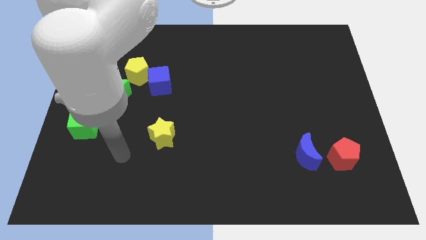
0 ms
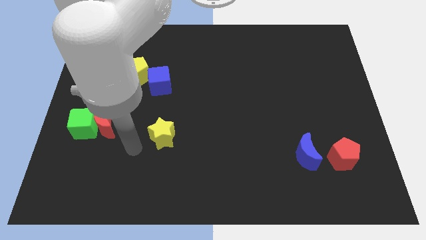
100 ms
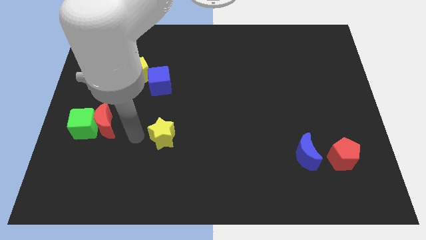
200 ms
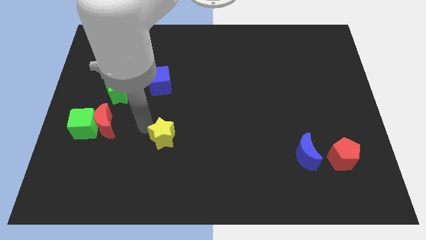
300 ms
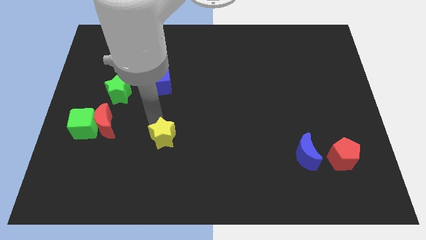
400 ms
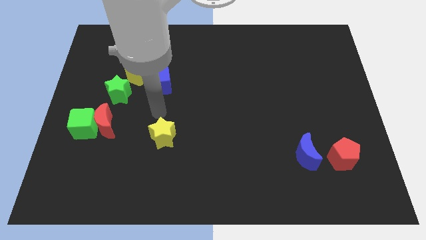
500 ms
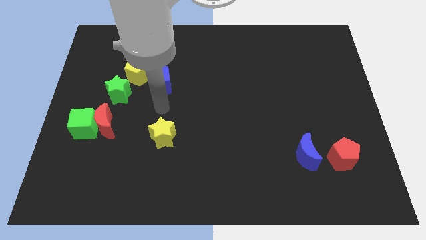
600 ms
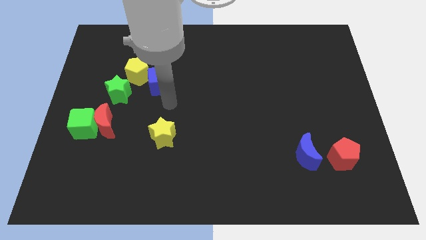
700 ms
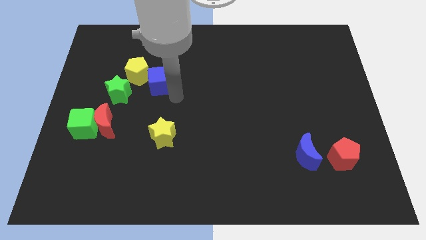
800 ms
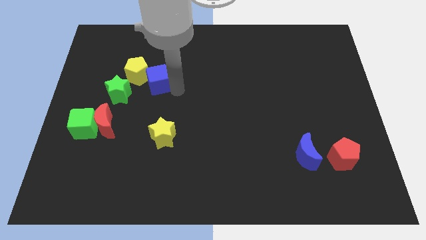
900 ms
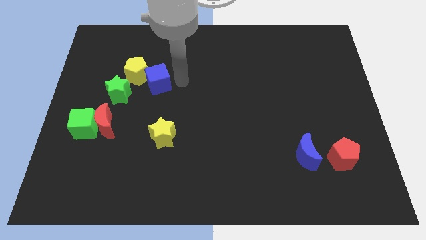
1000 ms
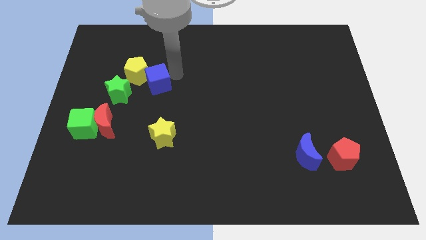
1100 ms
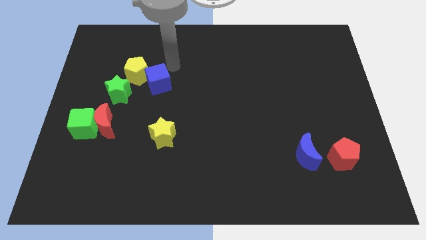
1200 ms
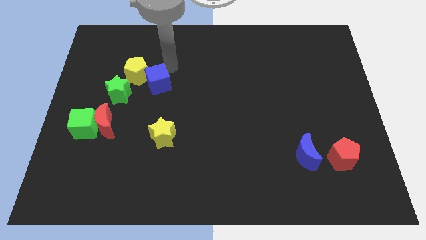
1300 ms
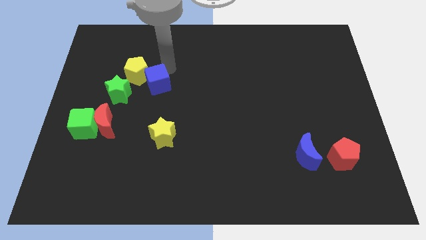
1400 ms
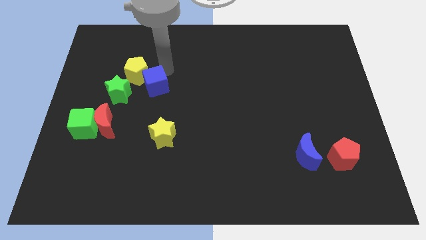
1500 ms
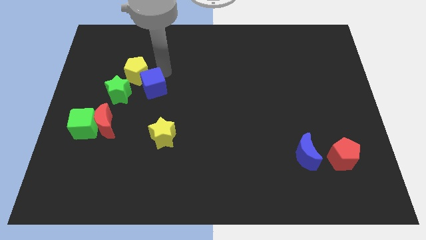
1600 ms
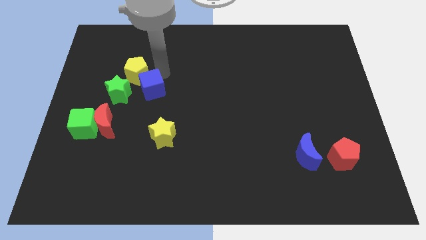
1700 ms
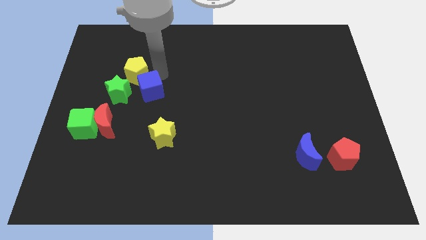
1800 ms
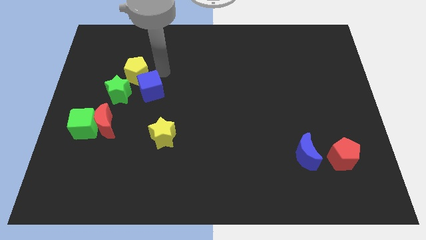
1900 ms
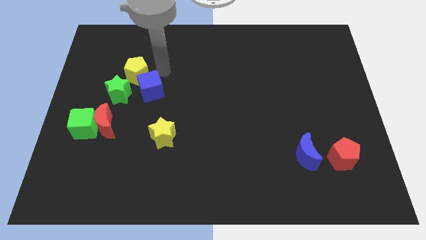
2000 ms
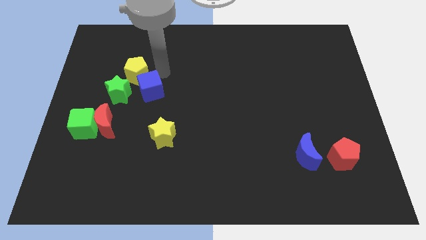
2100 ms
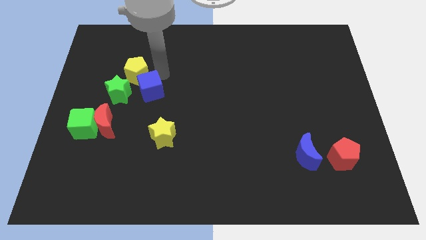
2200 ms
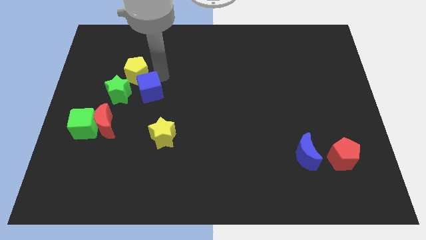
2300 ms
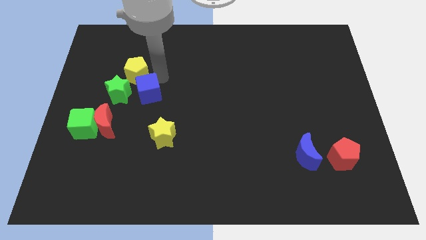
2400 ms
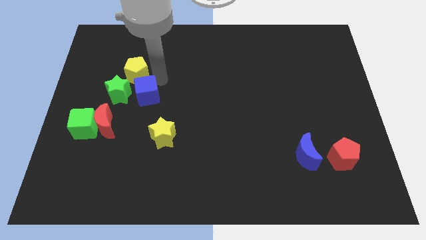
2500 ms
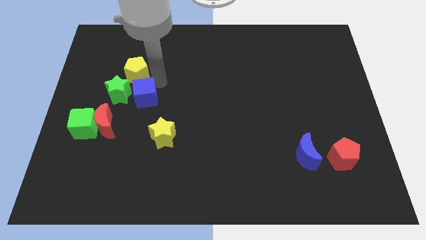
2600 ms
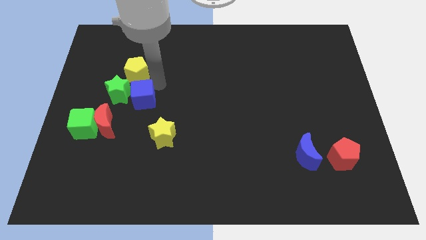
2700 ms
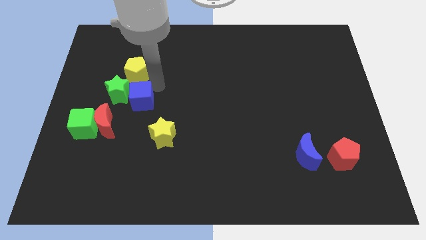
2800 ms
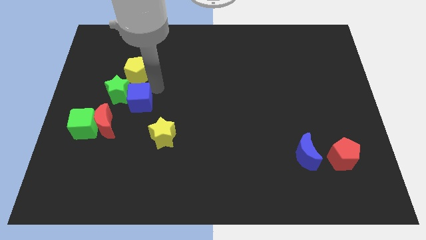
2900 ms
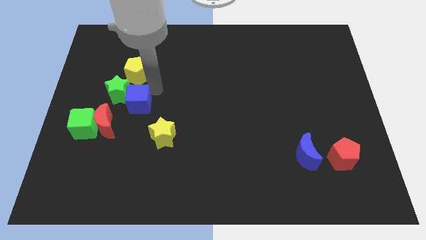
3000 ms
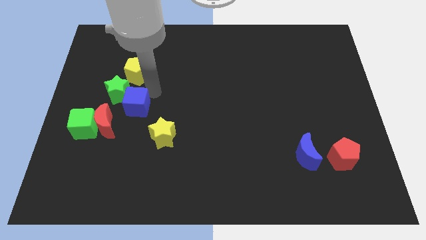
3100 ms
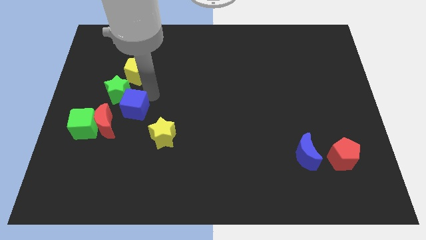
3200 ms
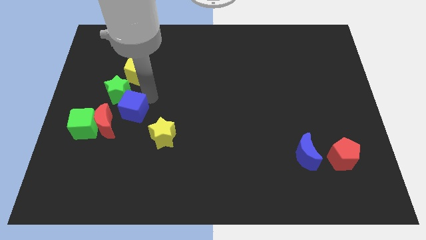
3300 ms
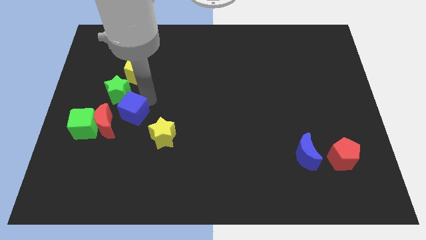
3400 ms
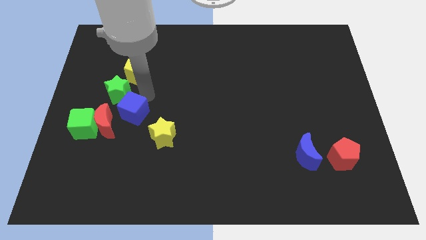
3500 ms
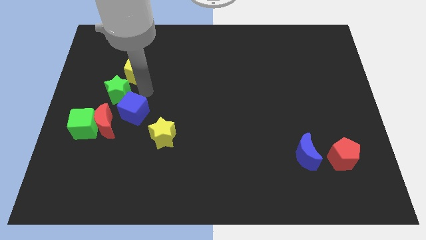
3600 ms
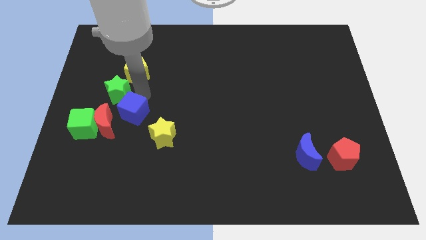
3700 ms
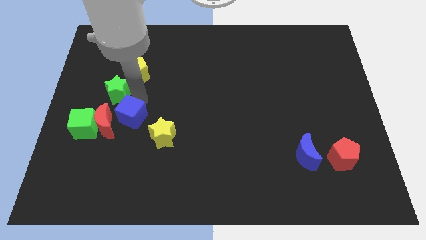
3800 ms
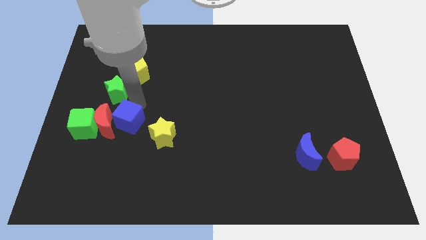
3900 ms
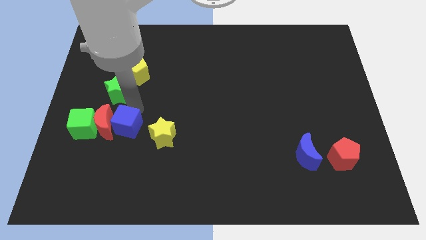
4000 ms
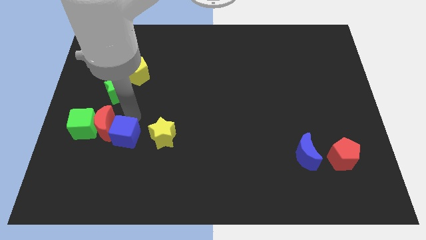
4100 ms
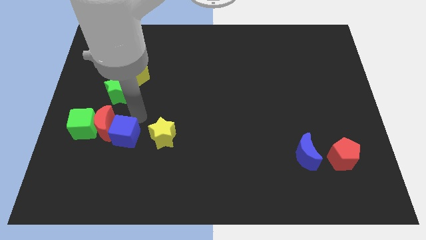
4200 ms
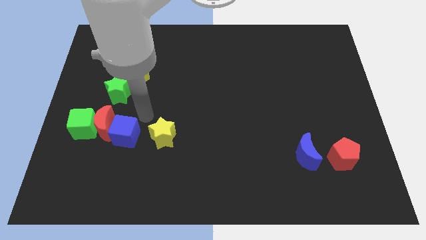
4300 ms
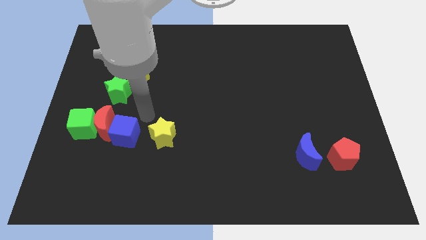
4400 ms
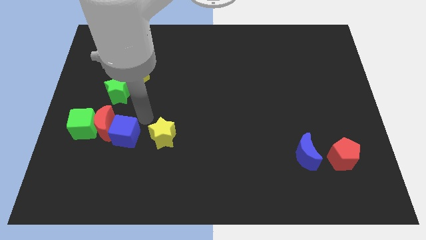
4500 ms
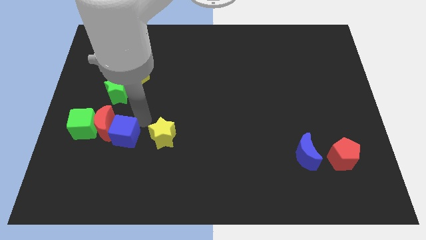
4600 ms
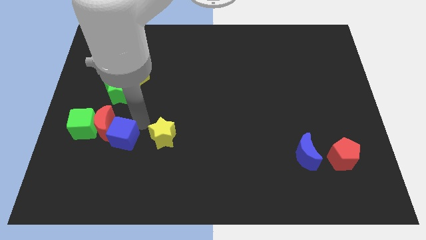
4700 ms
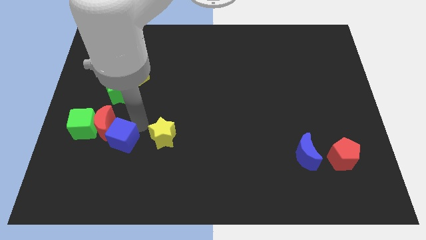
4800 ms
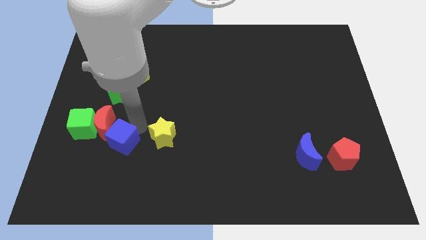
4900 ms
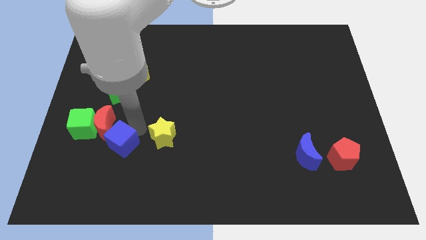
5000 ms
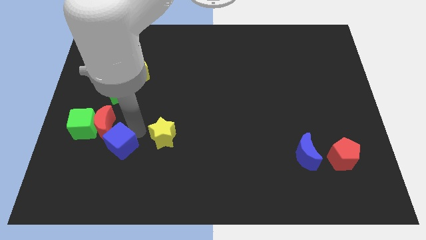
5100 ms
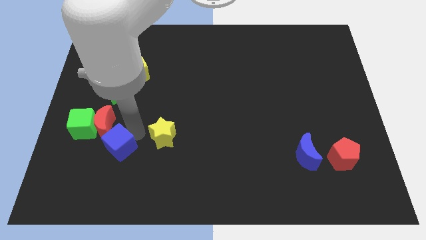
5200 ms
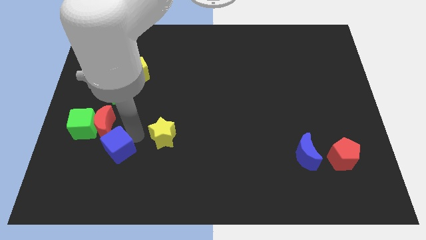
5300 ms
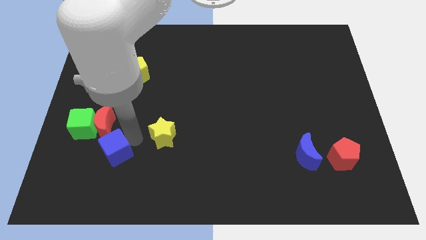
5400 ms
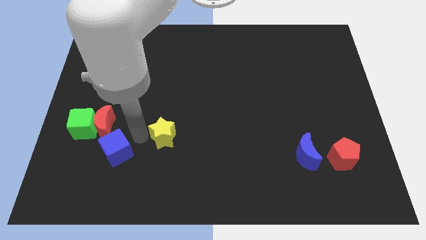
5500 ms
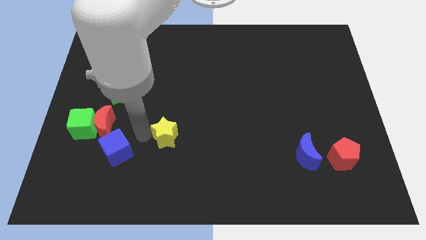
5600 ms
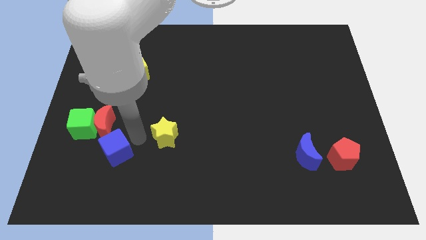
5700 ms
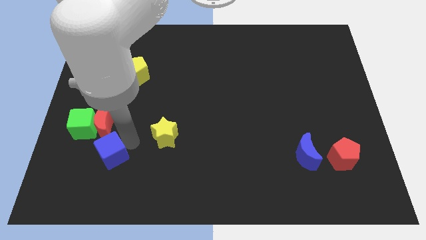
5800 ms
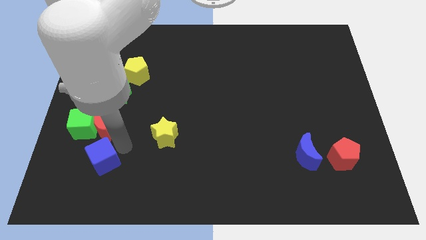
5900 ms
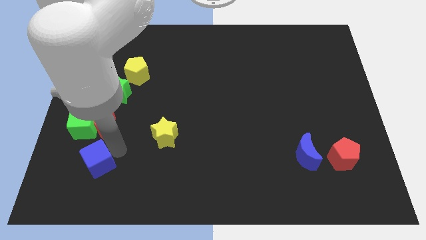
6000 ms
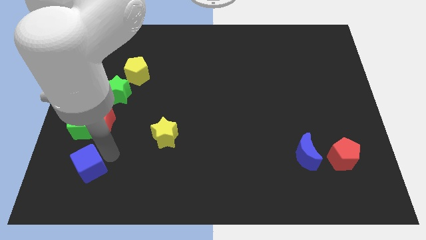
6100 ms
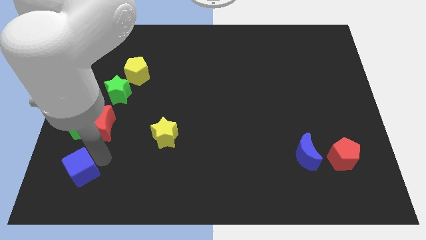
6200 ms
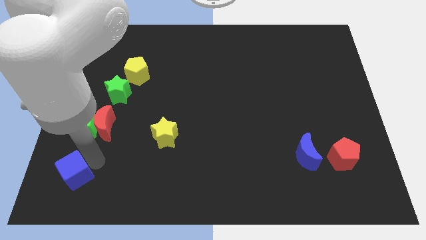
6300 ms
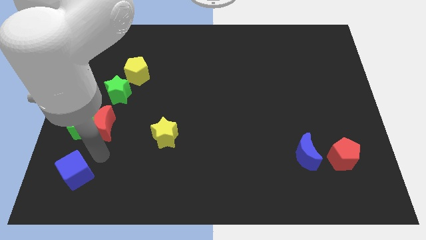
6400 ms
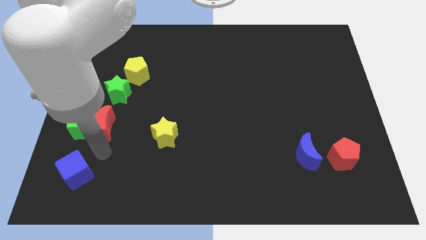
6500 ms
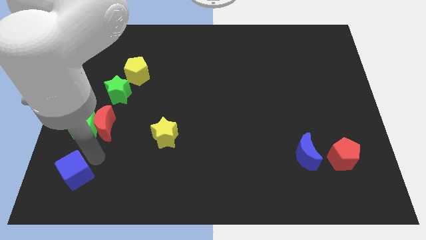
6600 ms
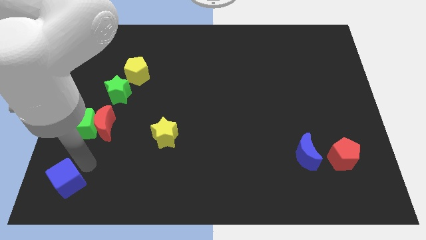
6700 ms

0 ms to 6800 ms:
push the blue cube to the bottom left corner

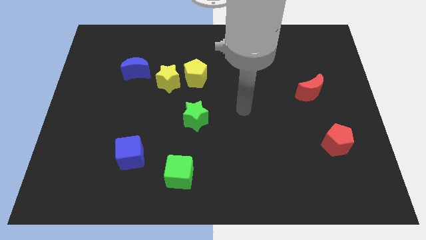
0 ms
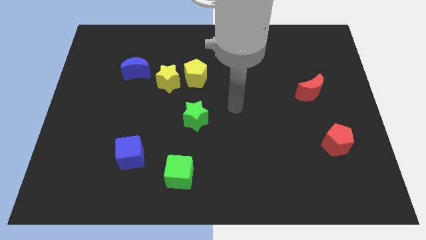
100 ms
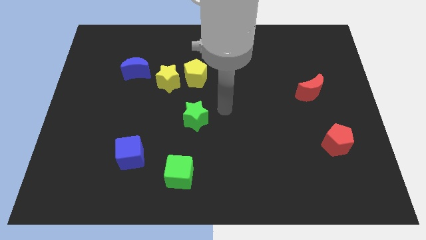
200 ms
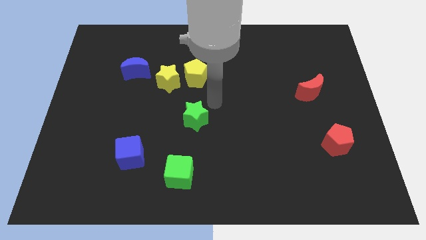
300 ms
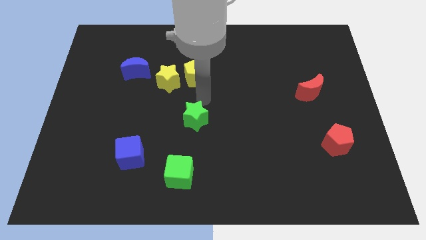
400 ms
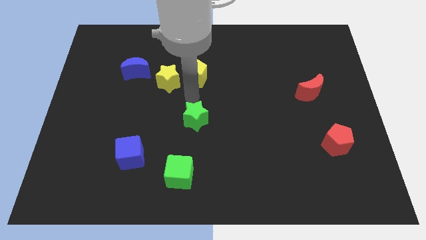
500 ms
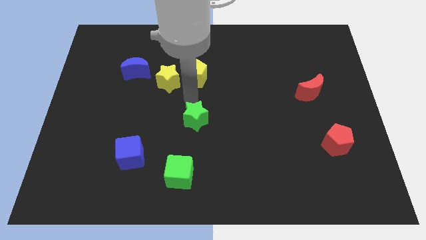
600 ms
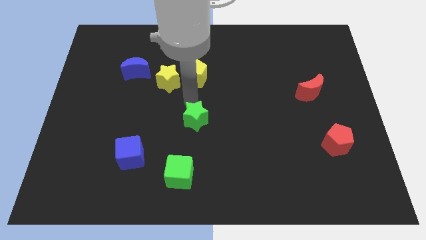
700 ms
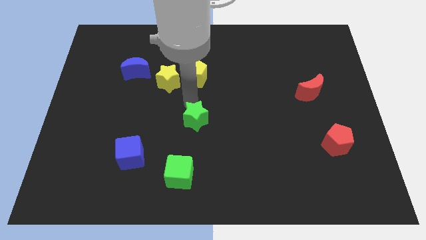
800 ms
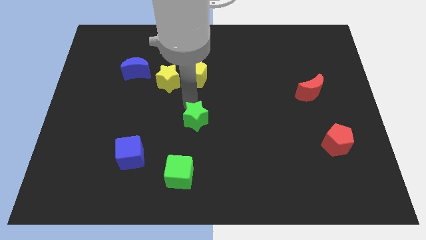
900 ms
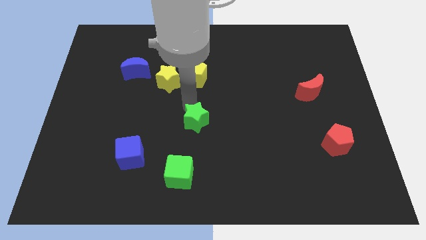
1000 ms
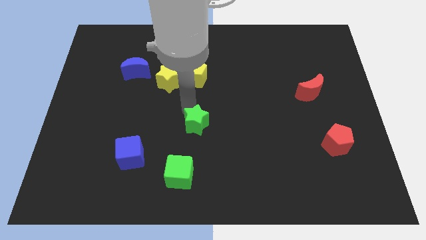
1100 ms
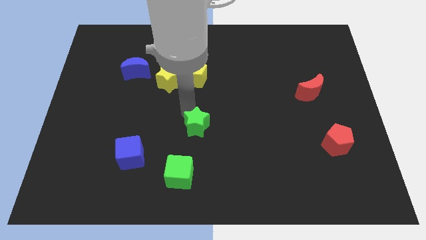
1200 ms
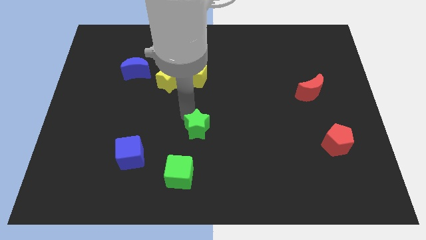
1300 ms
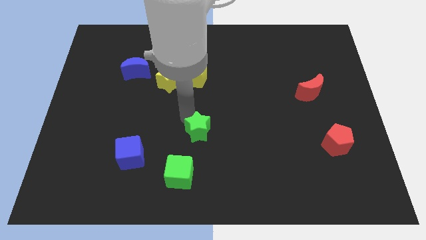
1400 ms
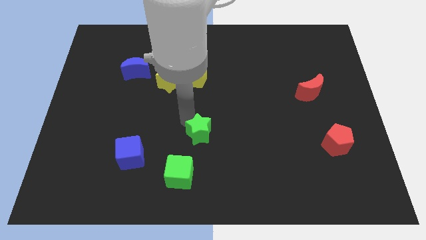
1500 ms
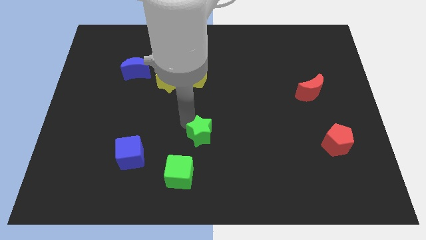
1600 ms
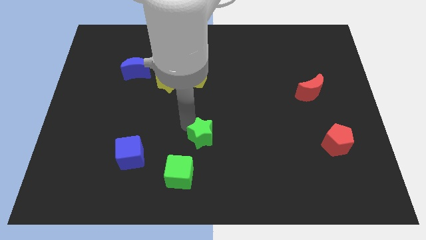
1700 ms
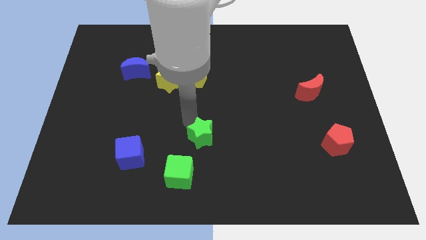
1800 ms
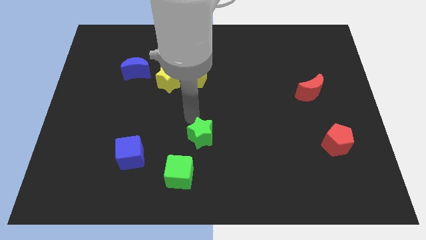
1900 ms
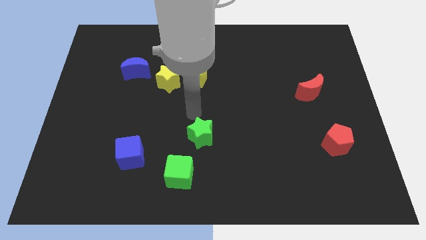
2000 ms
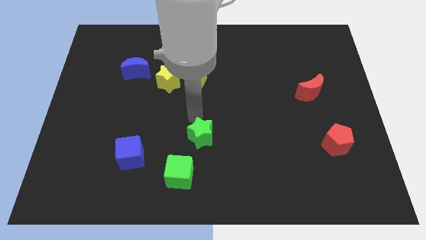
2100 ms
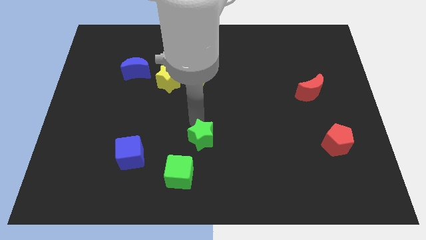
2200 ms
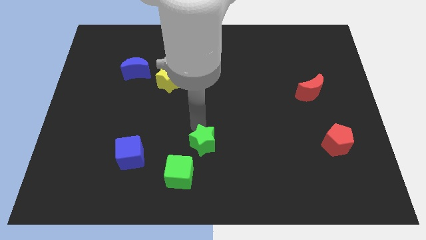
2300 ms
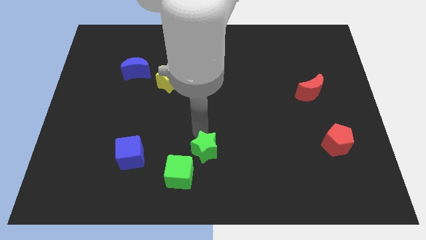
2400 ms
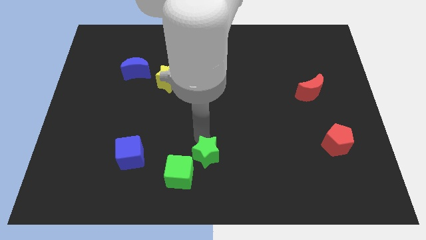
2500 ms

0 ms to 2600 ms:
slide the green star to the bottom side
